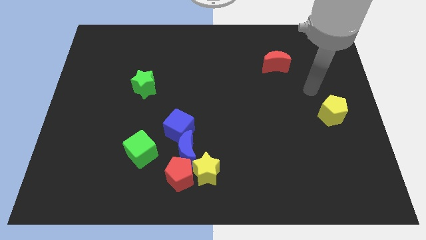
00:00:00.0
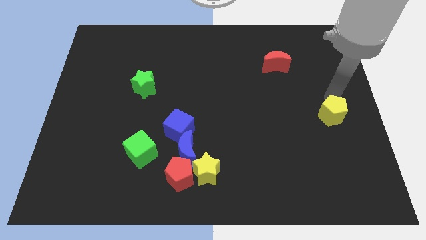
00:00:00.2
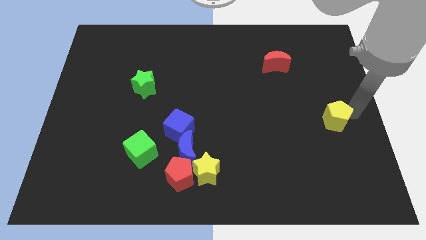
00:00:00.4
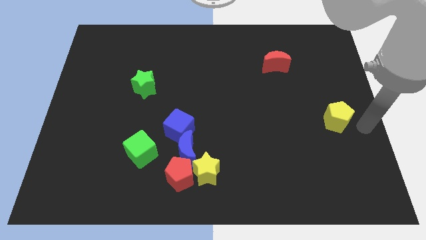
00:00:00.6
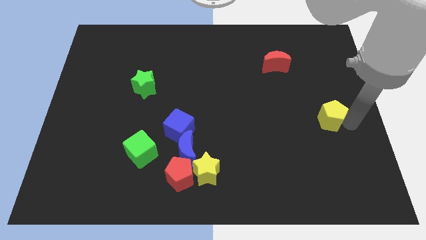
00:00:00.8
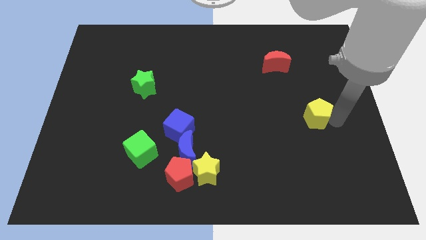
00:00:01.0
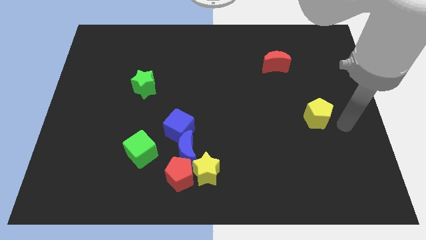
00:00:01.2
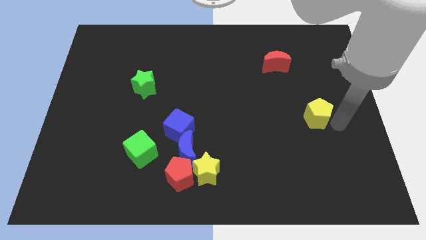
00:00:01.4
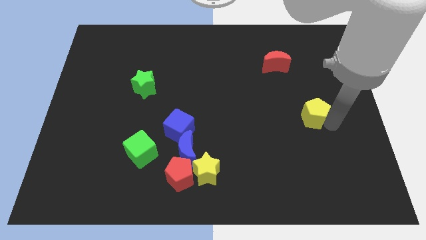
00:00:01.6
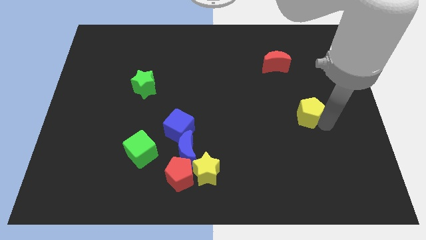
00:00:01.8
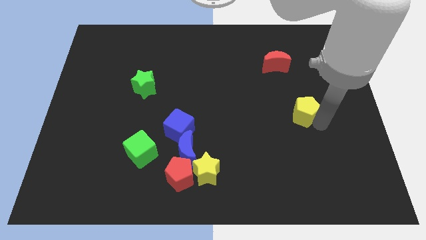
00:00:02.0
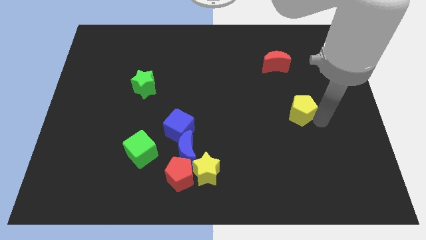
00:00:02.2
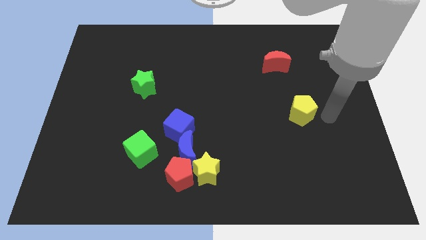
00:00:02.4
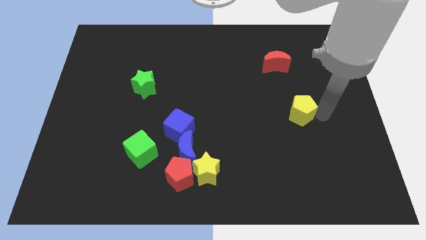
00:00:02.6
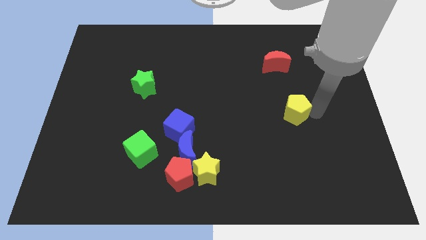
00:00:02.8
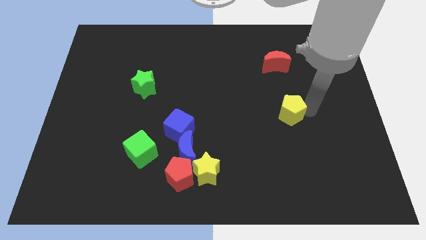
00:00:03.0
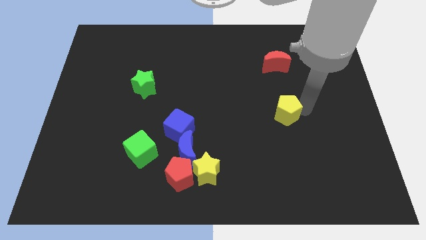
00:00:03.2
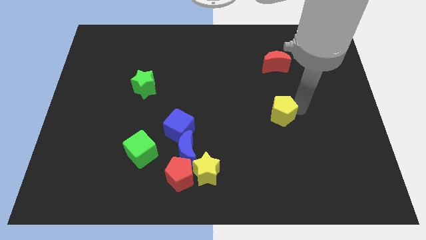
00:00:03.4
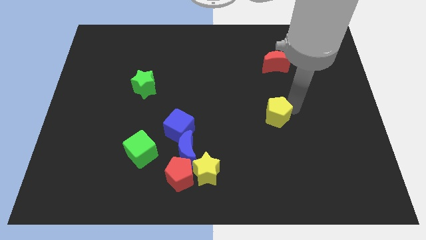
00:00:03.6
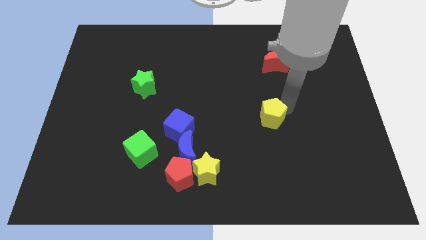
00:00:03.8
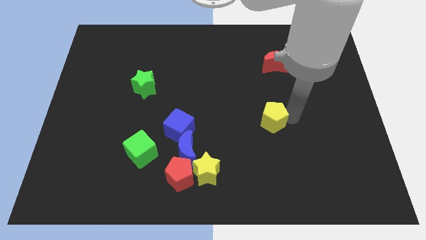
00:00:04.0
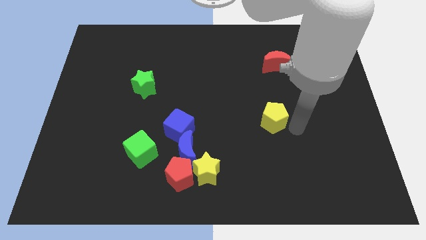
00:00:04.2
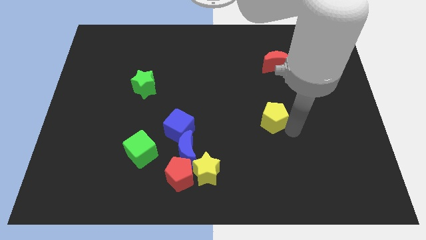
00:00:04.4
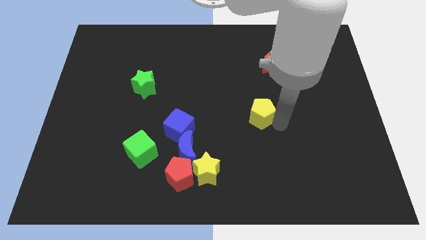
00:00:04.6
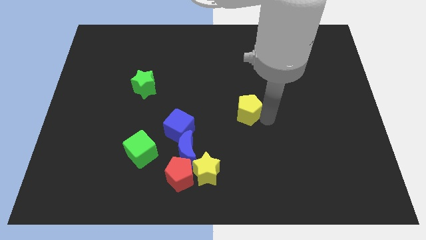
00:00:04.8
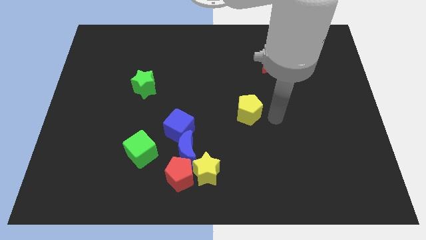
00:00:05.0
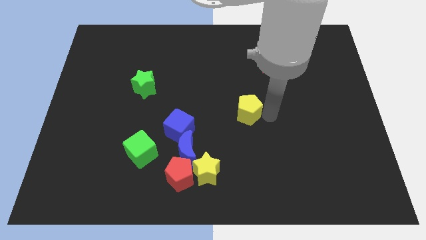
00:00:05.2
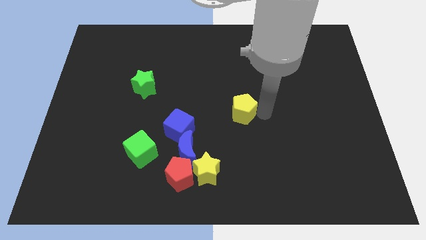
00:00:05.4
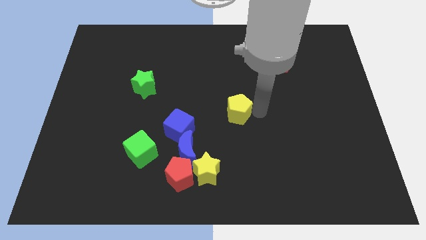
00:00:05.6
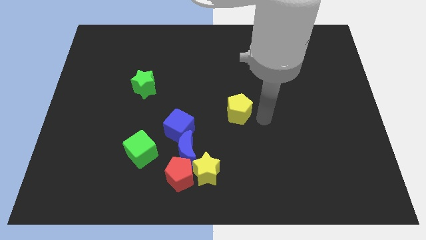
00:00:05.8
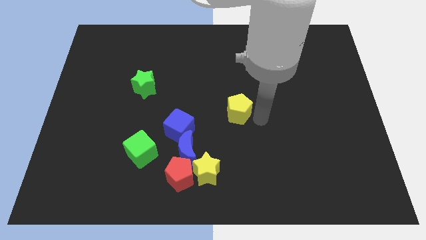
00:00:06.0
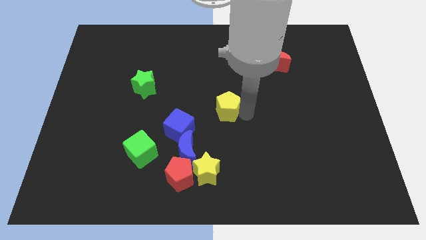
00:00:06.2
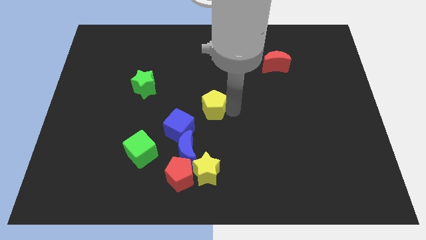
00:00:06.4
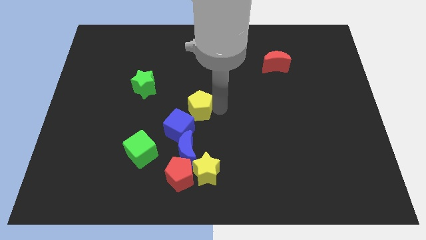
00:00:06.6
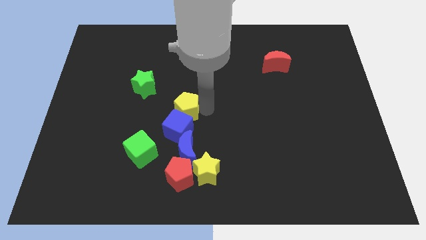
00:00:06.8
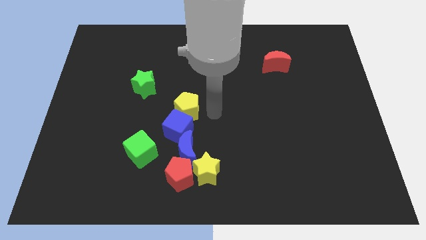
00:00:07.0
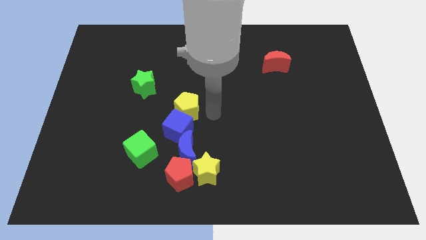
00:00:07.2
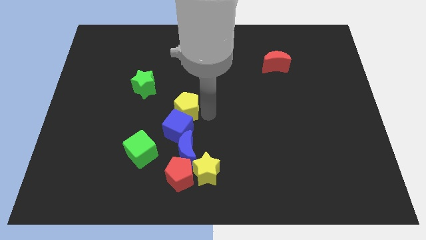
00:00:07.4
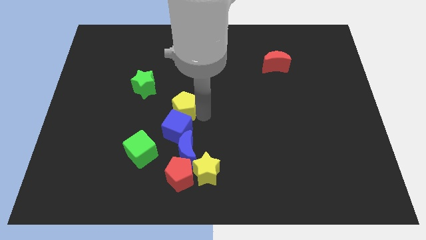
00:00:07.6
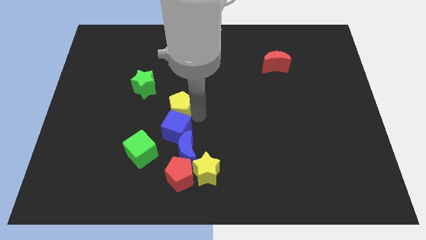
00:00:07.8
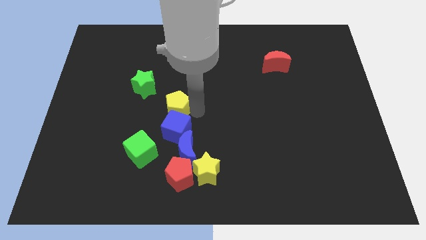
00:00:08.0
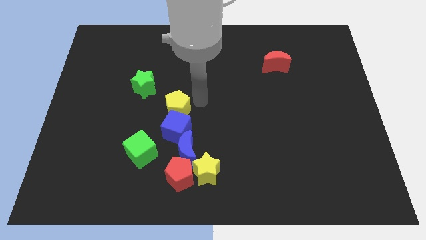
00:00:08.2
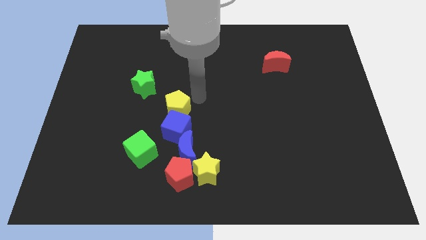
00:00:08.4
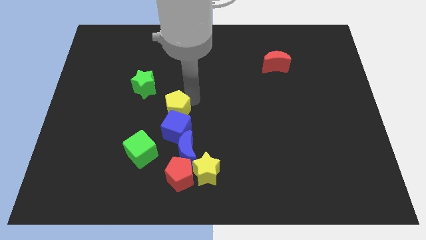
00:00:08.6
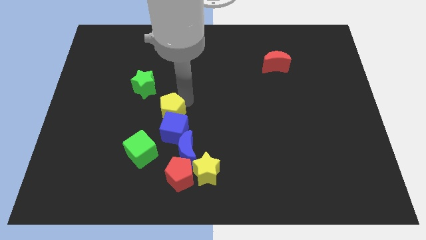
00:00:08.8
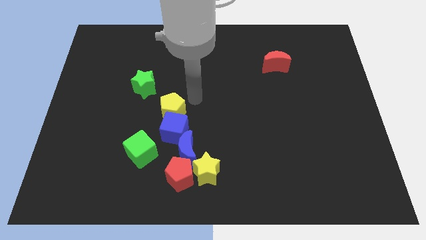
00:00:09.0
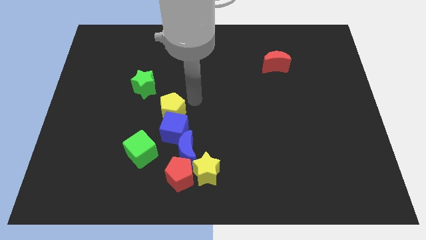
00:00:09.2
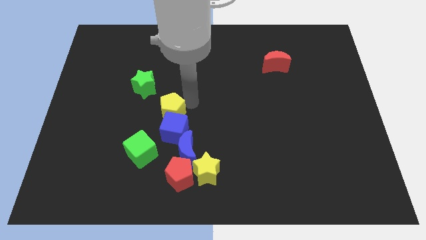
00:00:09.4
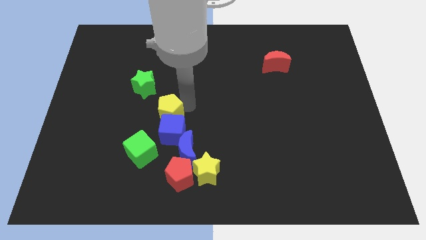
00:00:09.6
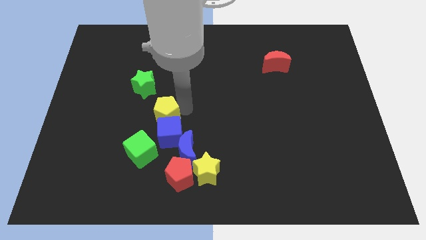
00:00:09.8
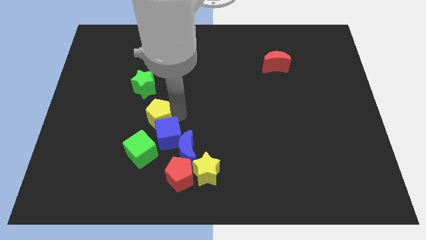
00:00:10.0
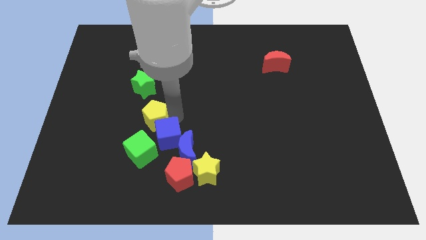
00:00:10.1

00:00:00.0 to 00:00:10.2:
push the yellow pentagon left of the blue cube

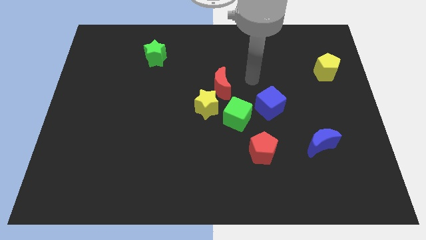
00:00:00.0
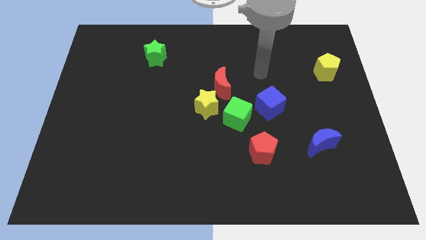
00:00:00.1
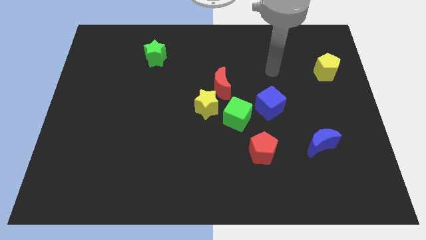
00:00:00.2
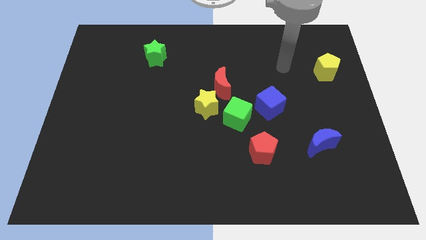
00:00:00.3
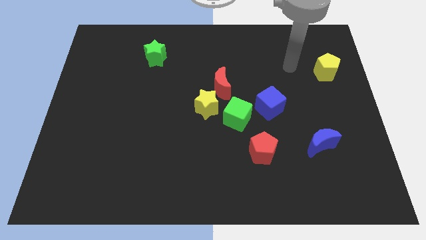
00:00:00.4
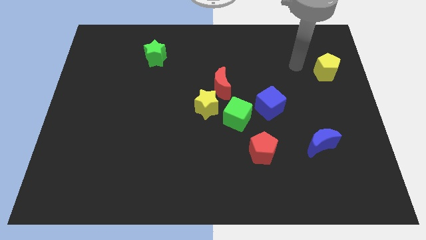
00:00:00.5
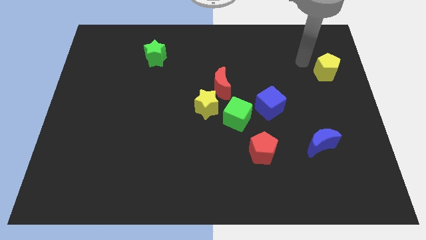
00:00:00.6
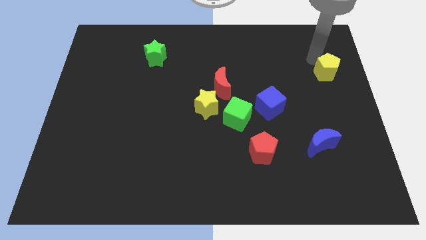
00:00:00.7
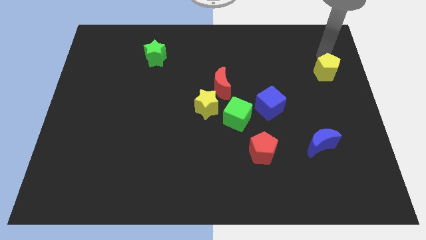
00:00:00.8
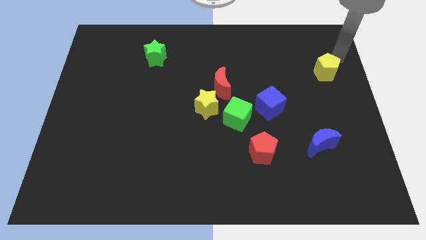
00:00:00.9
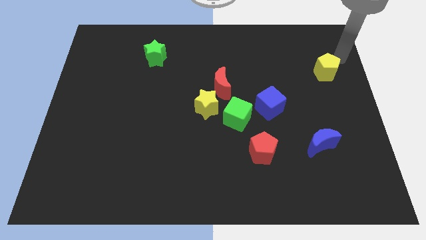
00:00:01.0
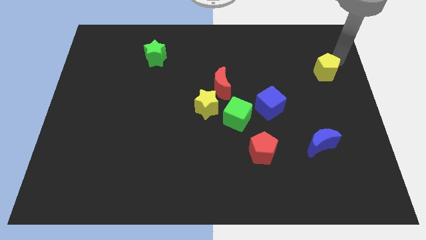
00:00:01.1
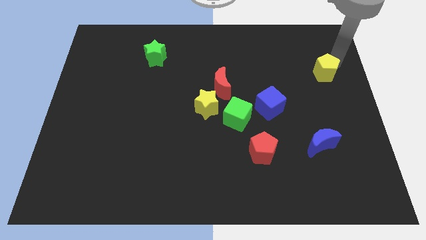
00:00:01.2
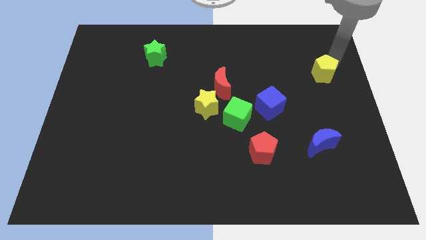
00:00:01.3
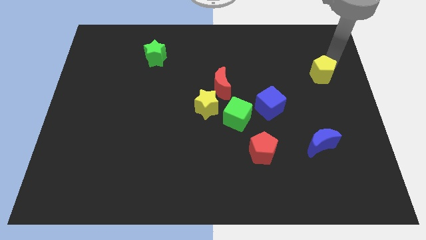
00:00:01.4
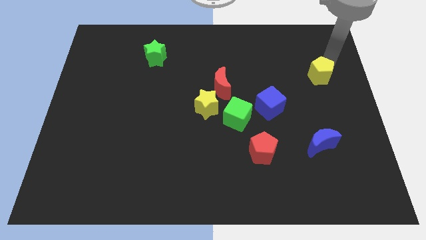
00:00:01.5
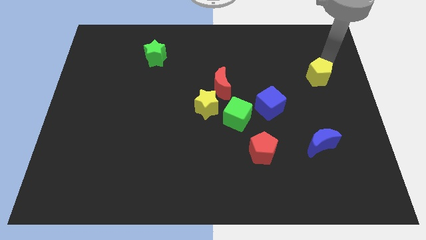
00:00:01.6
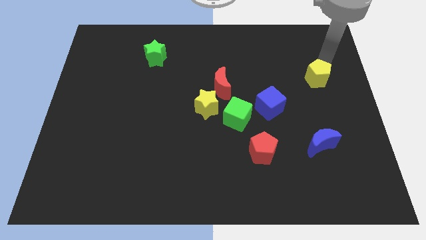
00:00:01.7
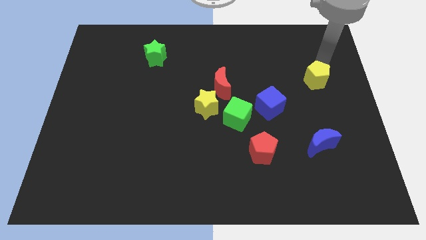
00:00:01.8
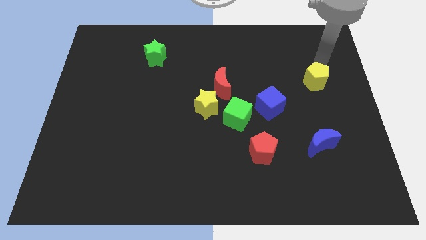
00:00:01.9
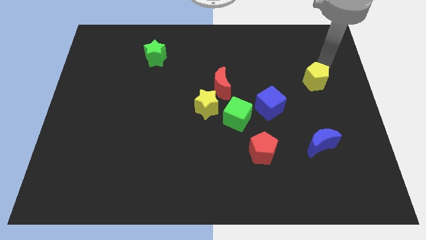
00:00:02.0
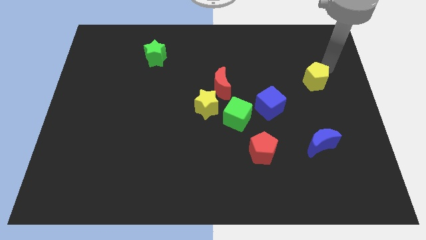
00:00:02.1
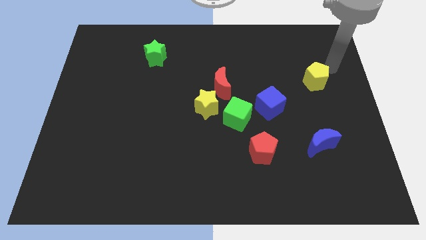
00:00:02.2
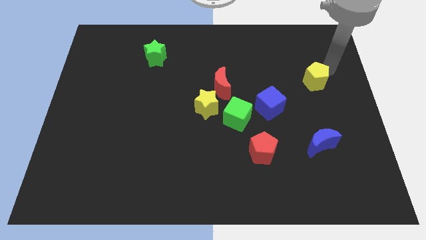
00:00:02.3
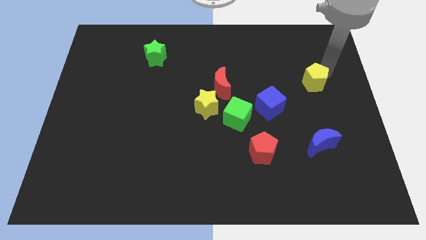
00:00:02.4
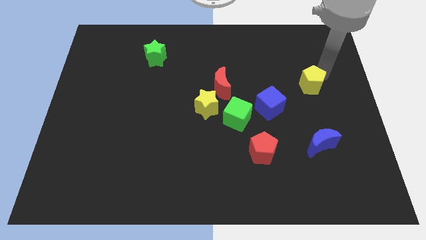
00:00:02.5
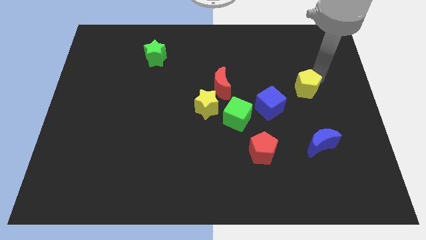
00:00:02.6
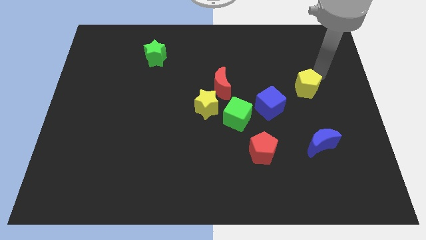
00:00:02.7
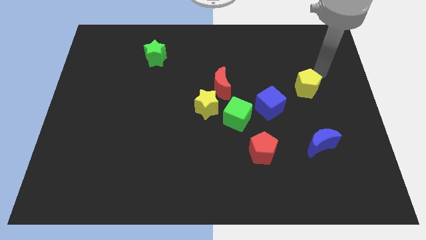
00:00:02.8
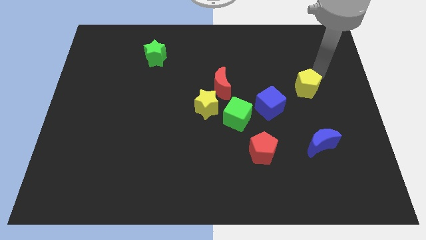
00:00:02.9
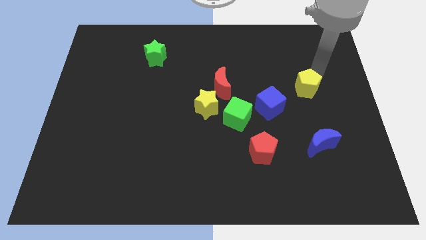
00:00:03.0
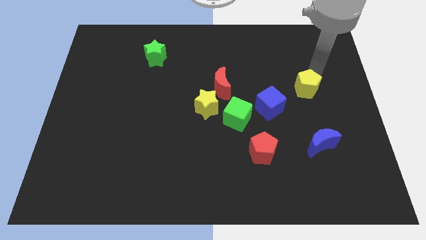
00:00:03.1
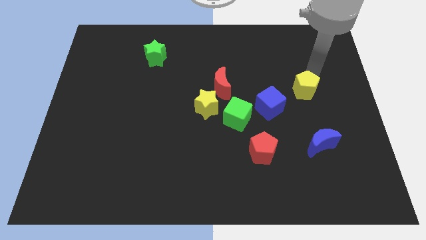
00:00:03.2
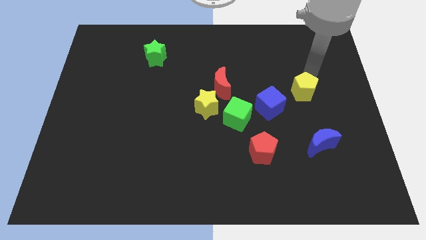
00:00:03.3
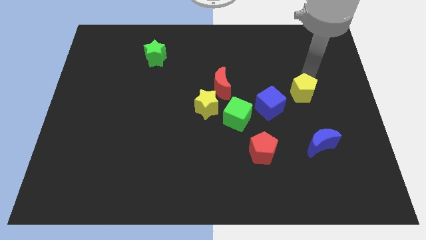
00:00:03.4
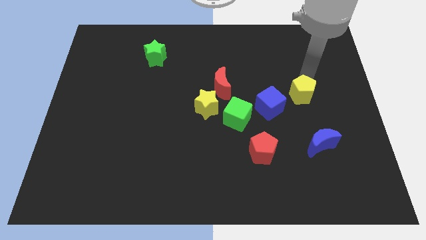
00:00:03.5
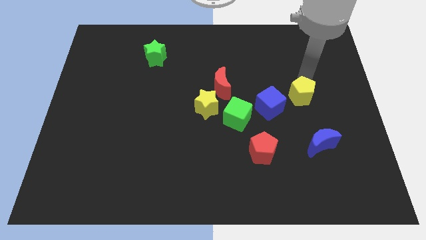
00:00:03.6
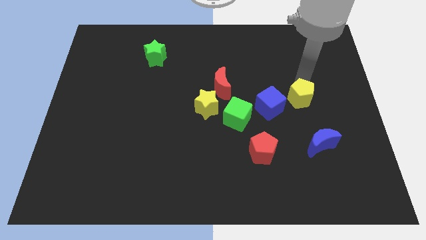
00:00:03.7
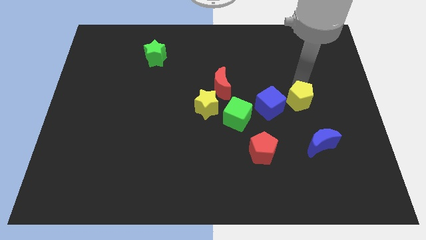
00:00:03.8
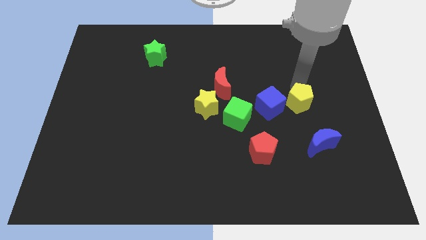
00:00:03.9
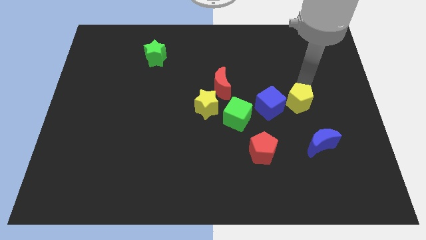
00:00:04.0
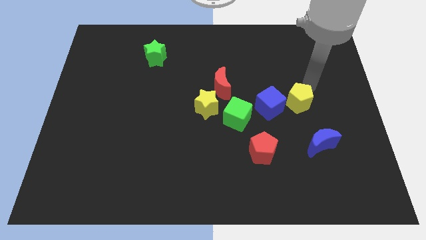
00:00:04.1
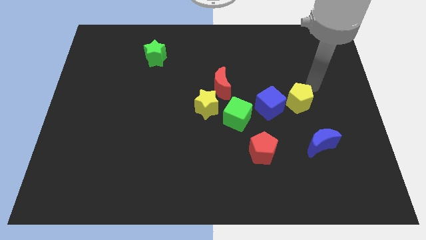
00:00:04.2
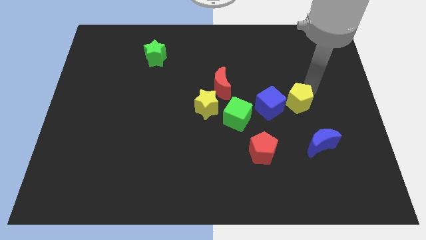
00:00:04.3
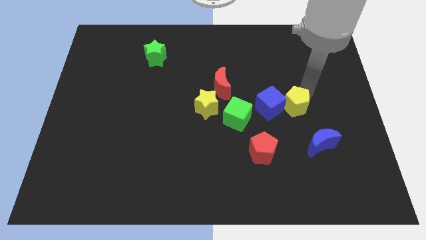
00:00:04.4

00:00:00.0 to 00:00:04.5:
push the yellow pentagon to the right of the green cube
